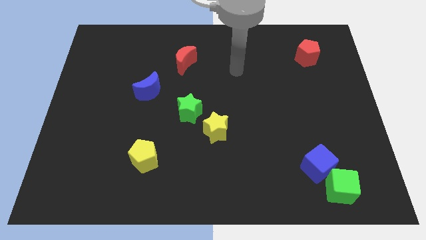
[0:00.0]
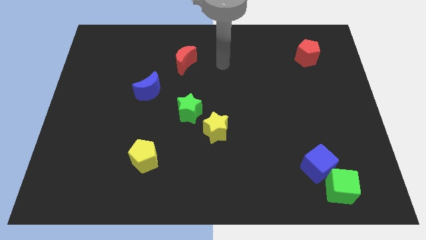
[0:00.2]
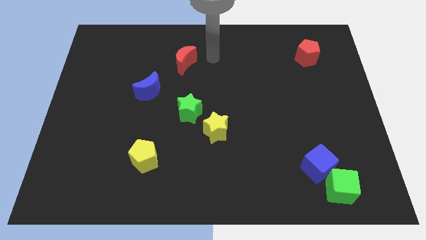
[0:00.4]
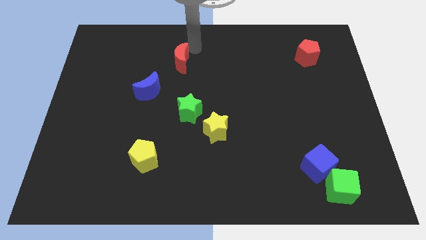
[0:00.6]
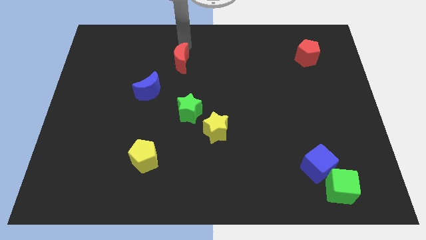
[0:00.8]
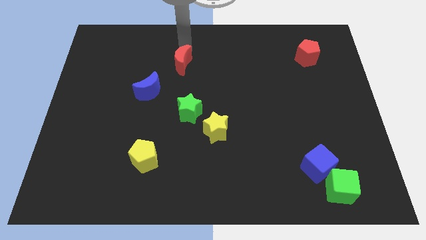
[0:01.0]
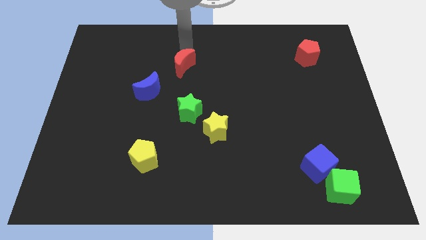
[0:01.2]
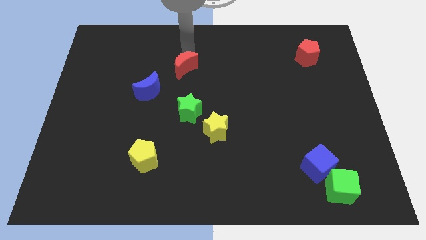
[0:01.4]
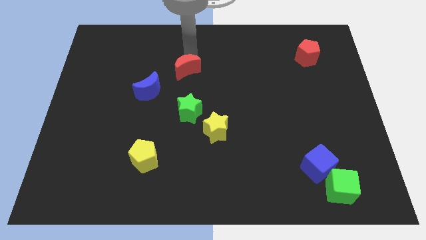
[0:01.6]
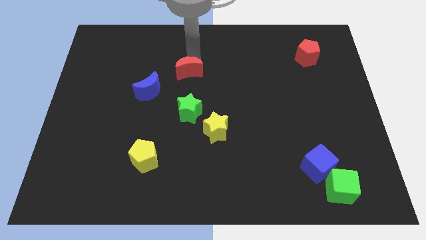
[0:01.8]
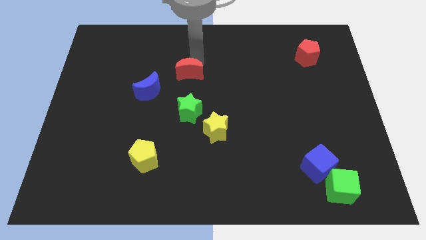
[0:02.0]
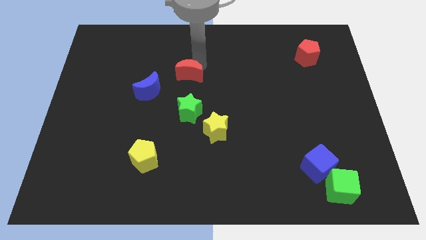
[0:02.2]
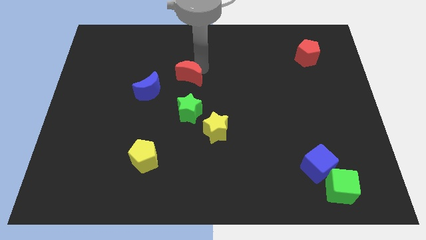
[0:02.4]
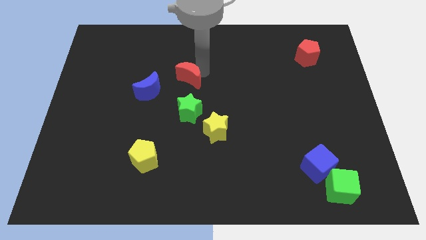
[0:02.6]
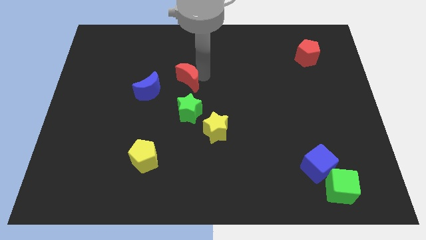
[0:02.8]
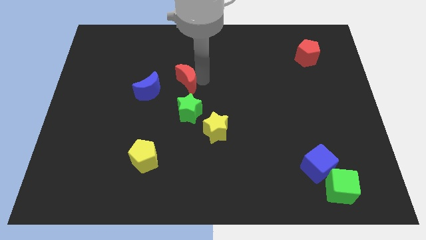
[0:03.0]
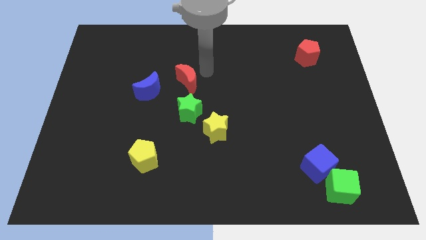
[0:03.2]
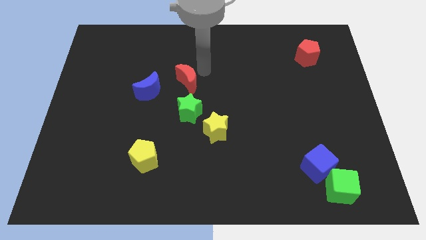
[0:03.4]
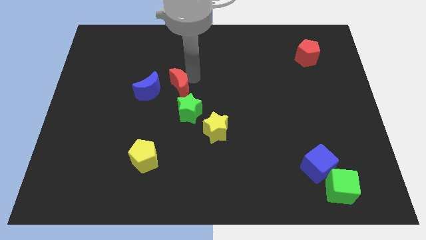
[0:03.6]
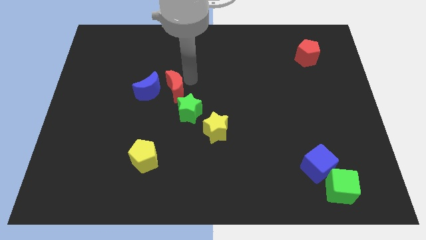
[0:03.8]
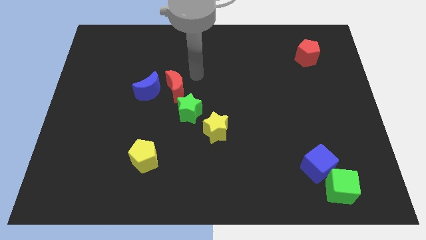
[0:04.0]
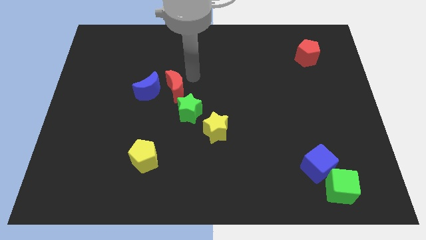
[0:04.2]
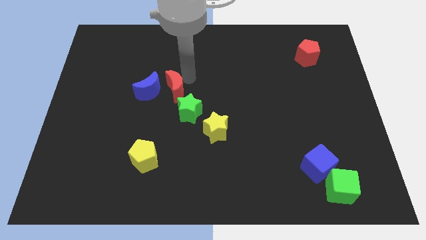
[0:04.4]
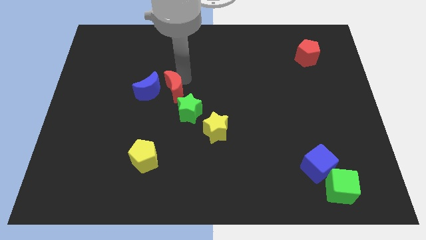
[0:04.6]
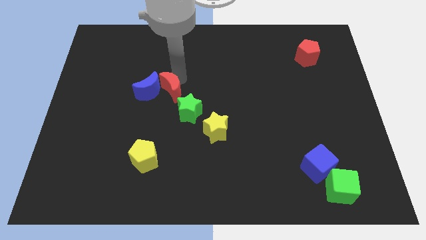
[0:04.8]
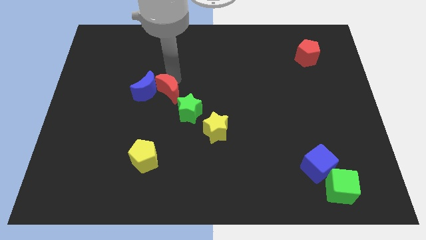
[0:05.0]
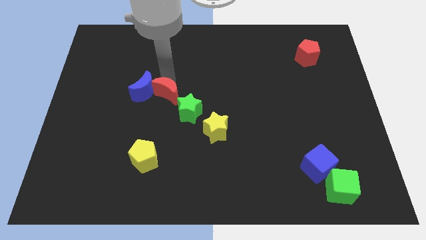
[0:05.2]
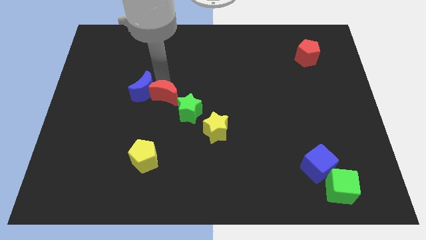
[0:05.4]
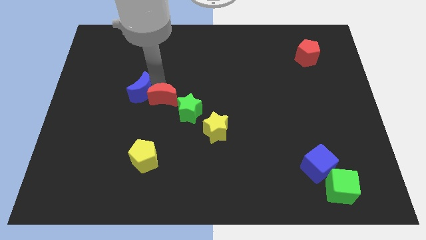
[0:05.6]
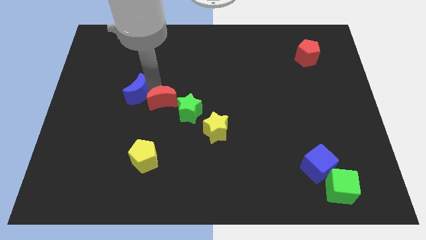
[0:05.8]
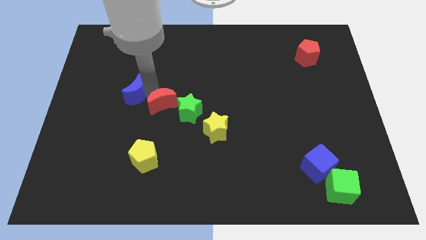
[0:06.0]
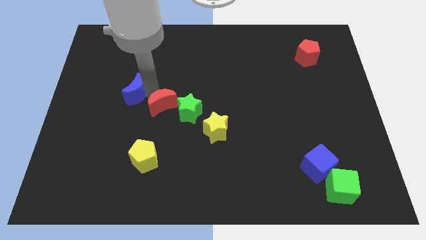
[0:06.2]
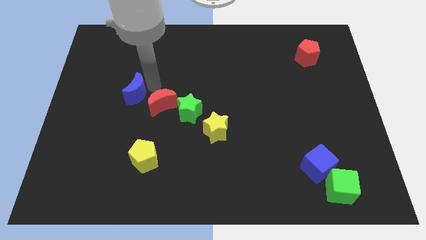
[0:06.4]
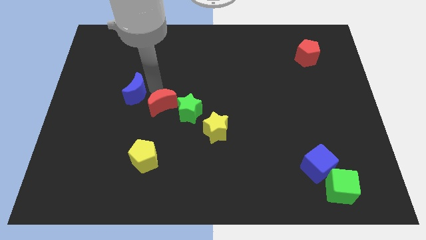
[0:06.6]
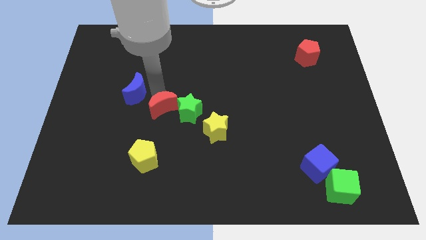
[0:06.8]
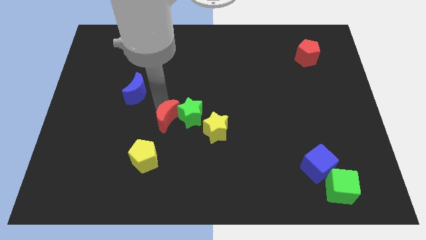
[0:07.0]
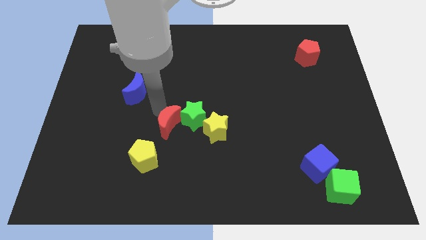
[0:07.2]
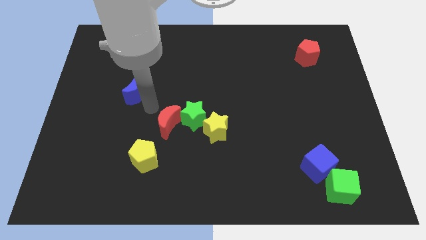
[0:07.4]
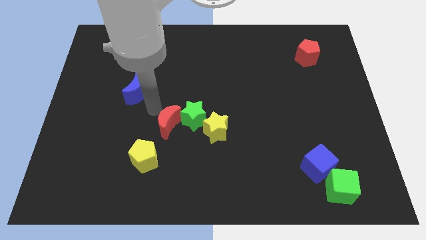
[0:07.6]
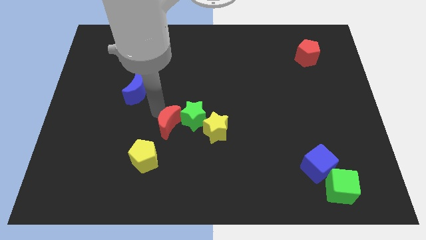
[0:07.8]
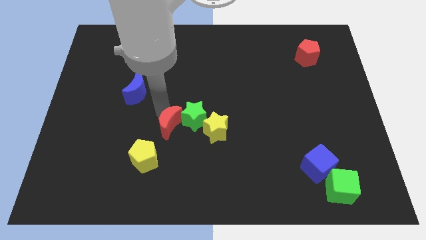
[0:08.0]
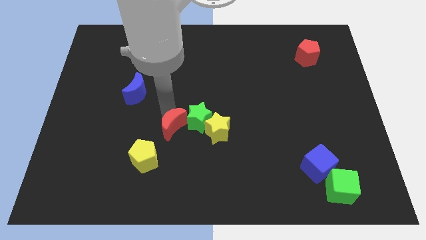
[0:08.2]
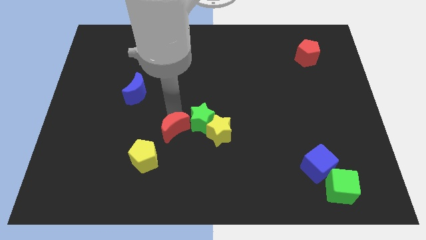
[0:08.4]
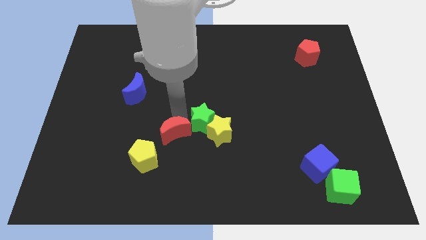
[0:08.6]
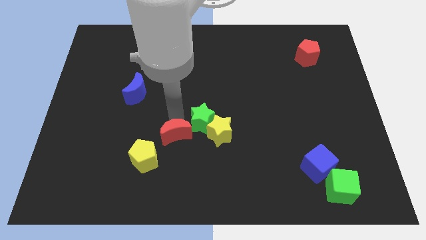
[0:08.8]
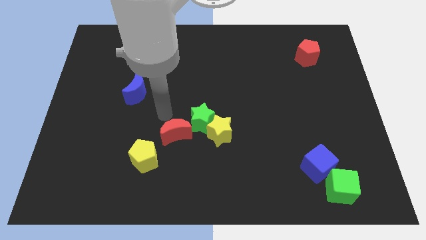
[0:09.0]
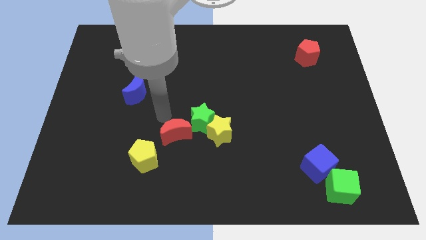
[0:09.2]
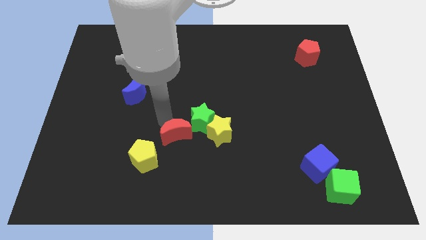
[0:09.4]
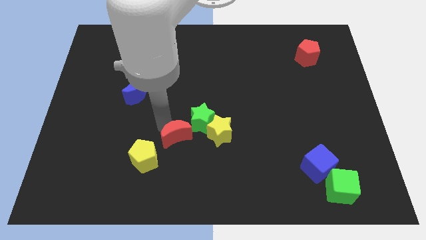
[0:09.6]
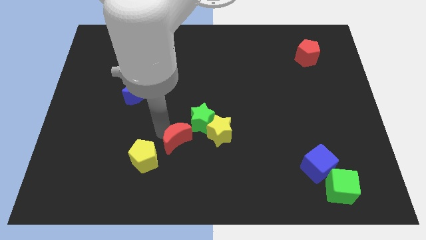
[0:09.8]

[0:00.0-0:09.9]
push the red moon to the right of the yellow pentagon

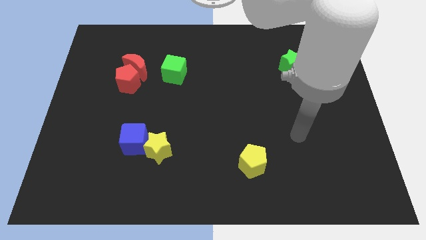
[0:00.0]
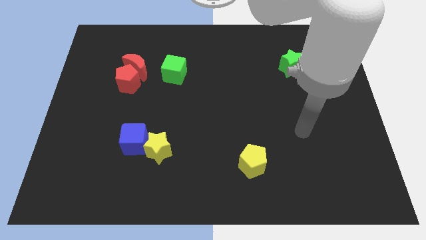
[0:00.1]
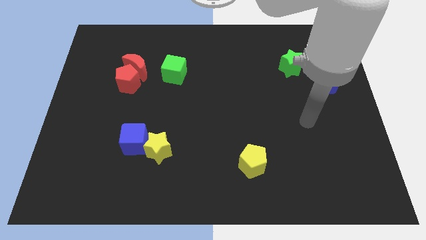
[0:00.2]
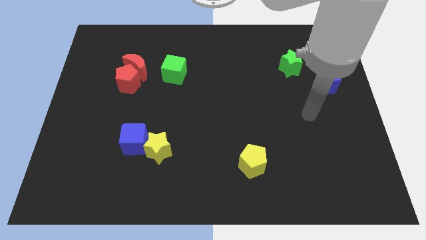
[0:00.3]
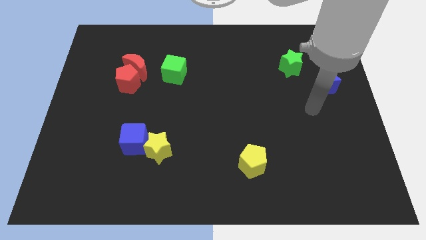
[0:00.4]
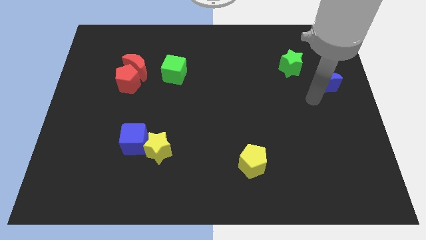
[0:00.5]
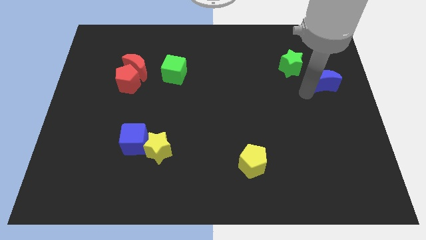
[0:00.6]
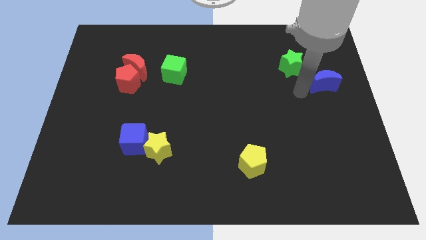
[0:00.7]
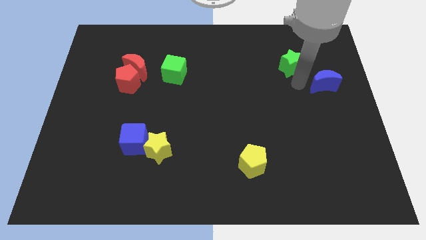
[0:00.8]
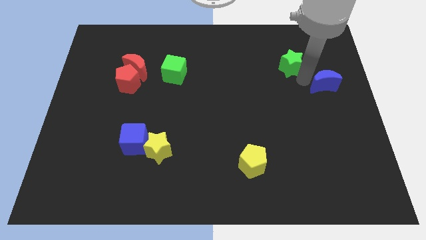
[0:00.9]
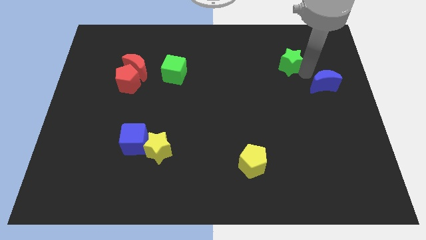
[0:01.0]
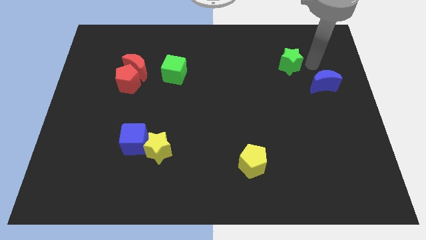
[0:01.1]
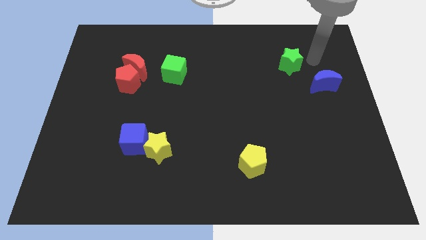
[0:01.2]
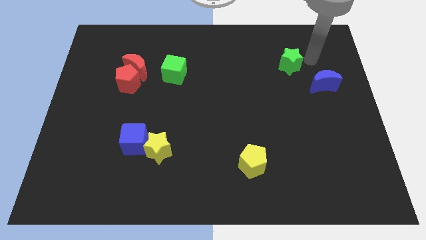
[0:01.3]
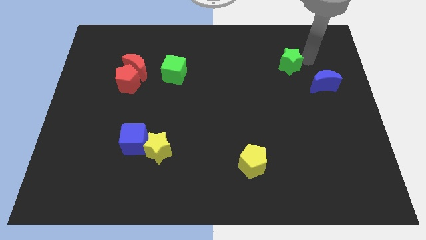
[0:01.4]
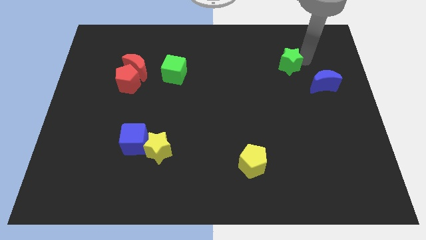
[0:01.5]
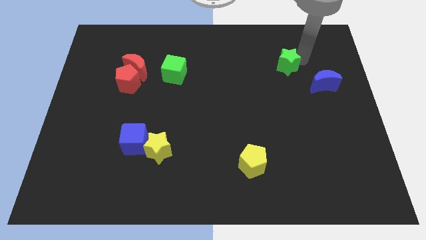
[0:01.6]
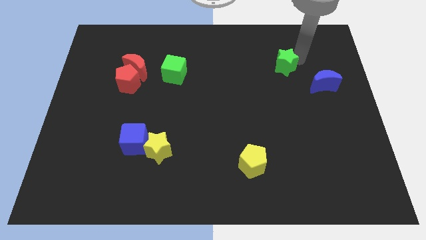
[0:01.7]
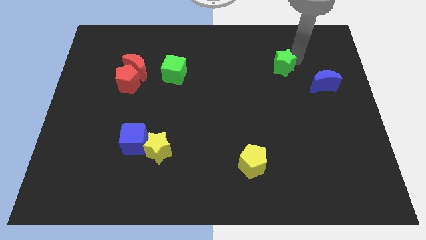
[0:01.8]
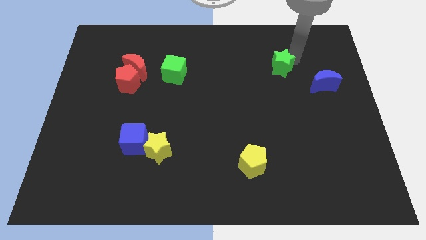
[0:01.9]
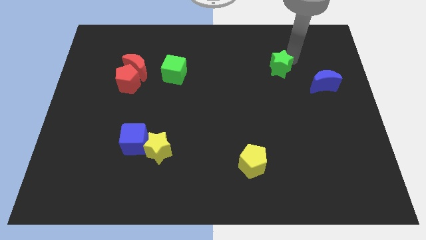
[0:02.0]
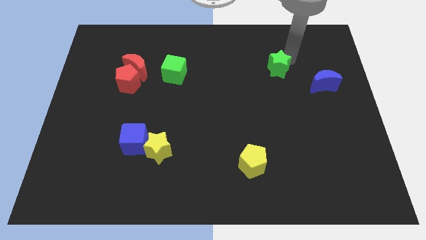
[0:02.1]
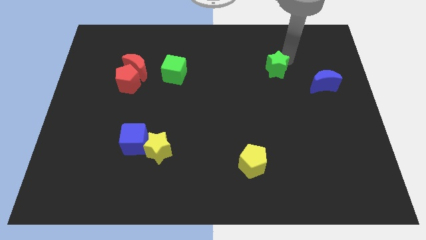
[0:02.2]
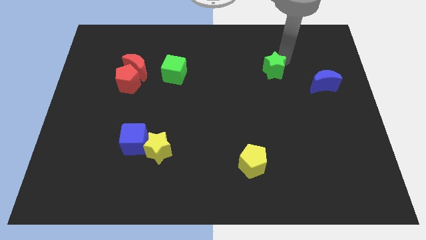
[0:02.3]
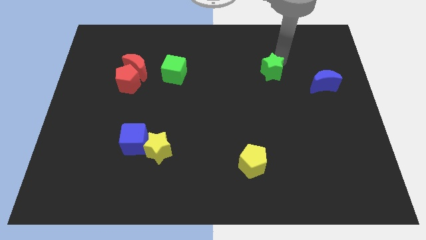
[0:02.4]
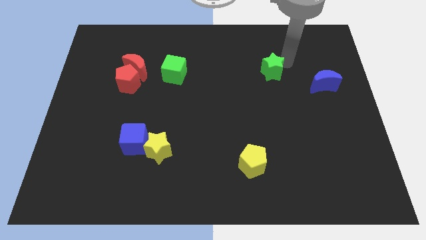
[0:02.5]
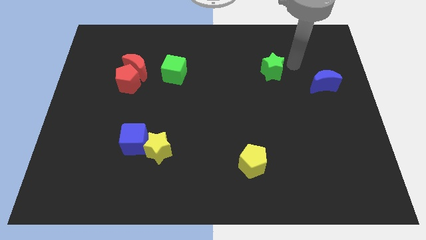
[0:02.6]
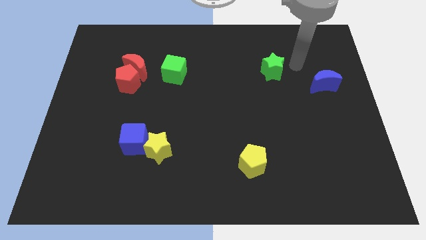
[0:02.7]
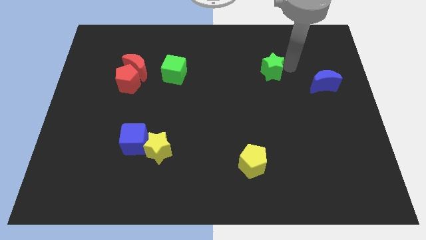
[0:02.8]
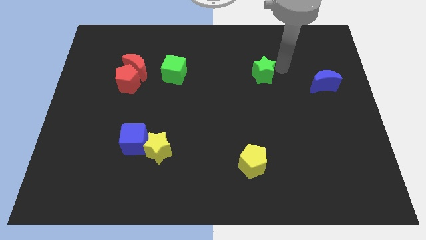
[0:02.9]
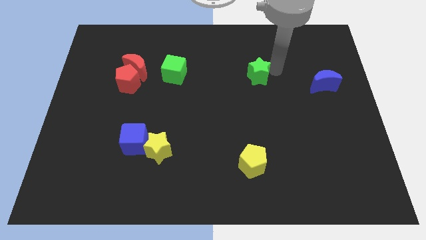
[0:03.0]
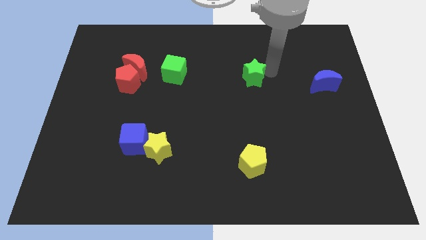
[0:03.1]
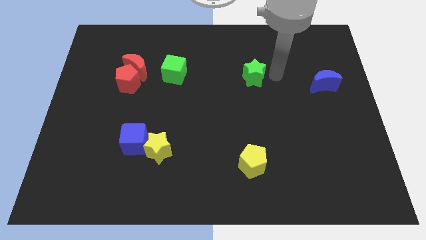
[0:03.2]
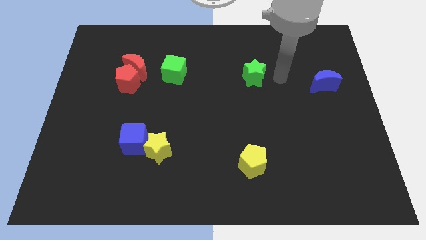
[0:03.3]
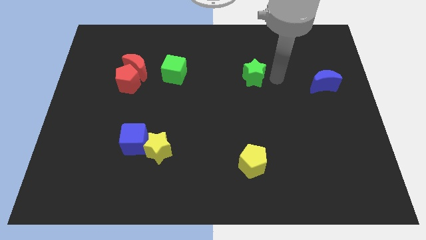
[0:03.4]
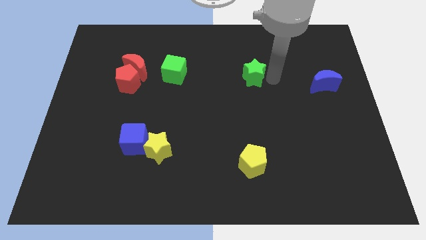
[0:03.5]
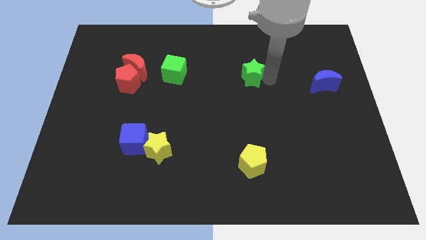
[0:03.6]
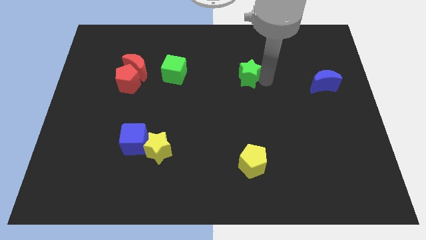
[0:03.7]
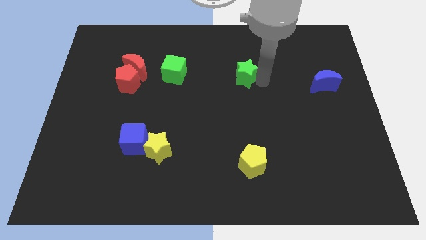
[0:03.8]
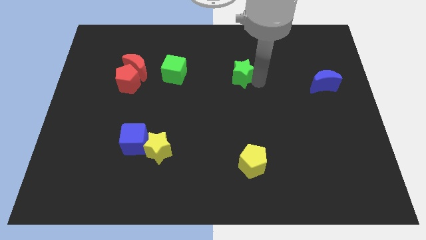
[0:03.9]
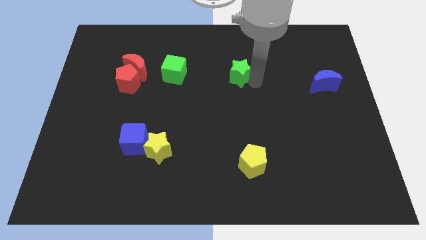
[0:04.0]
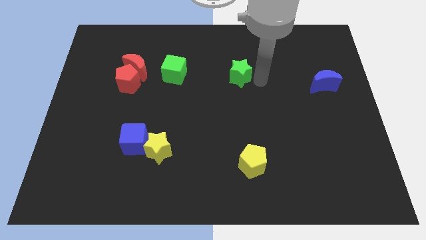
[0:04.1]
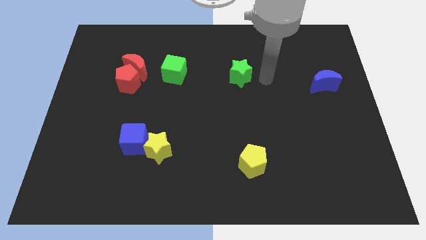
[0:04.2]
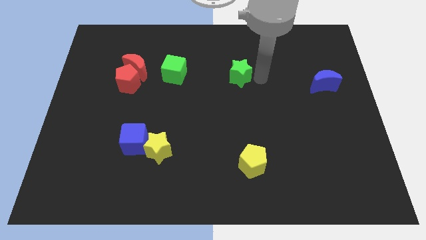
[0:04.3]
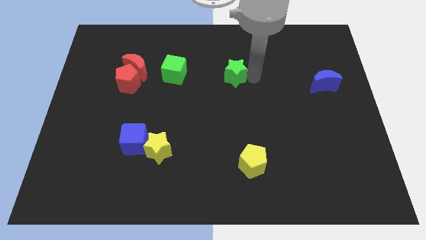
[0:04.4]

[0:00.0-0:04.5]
put the green star to the right of the green cube
